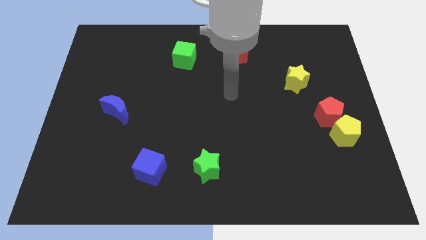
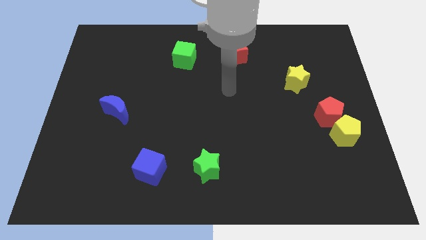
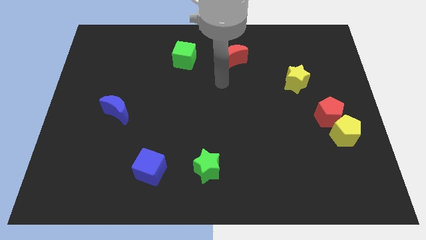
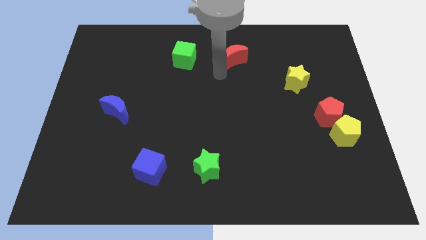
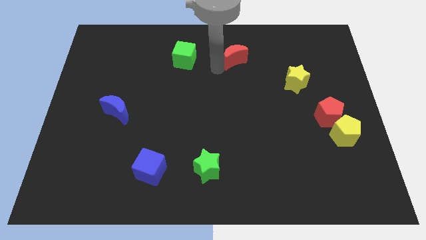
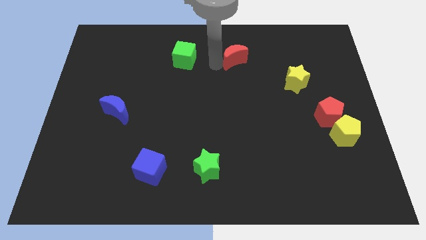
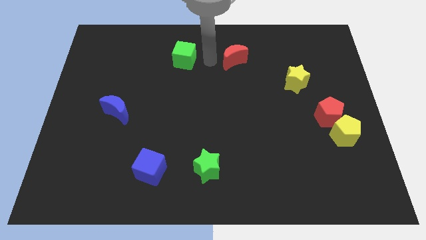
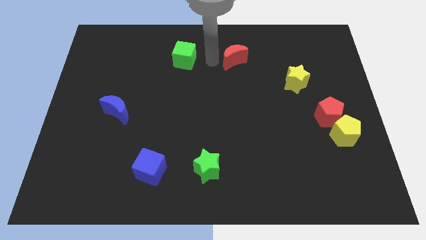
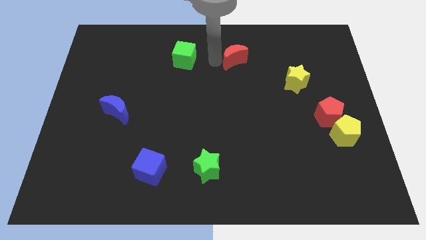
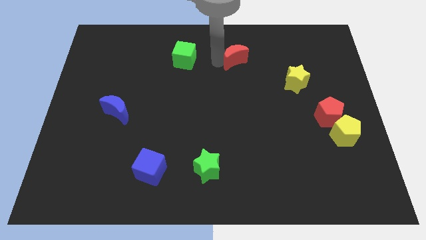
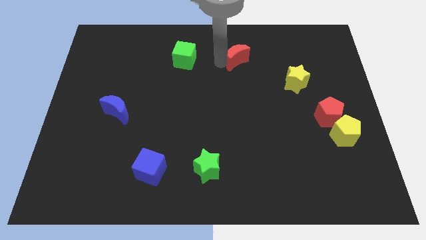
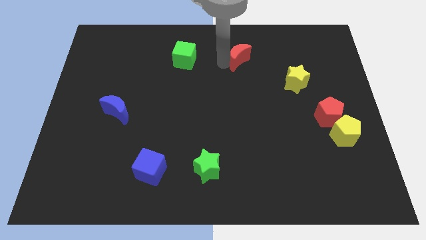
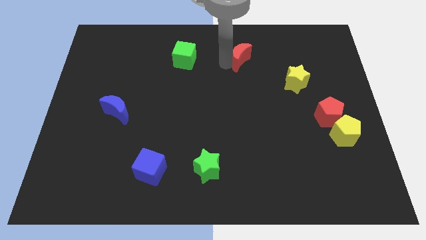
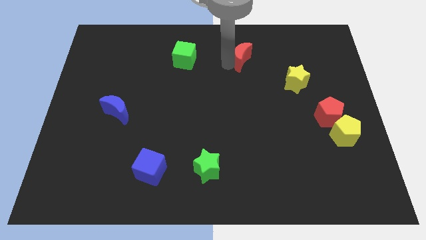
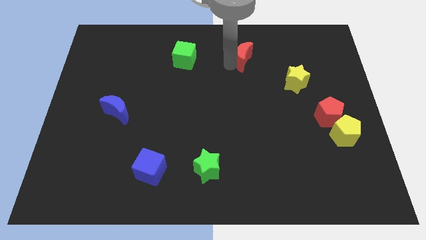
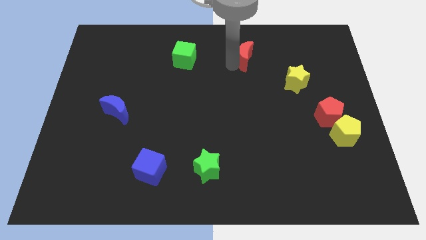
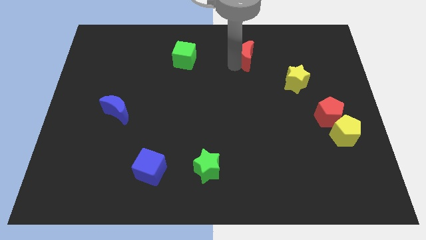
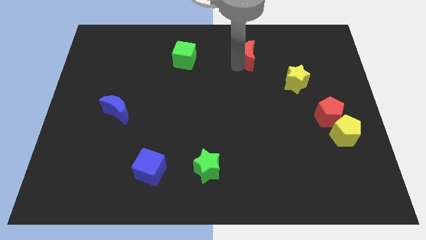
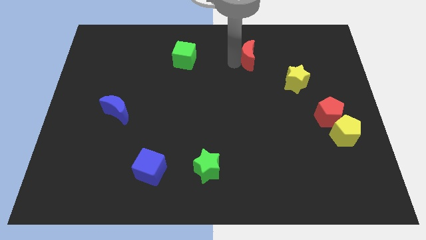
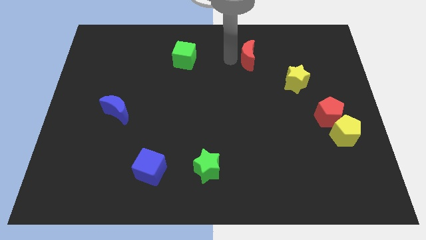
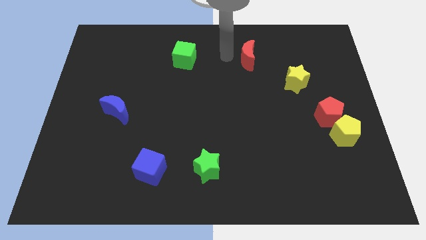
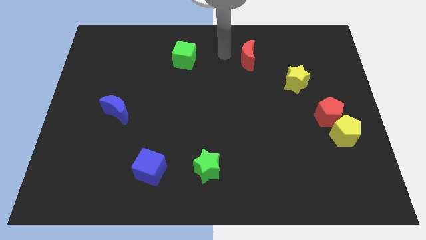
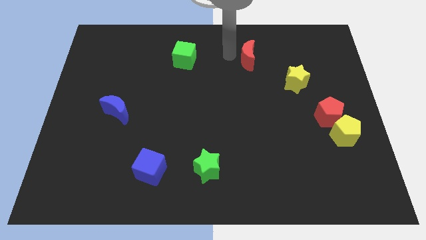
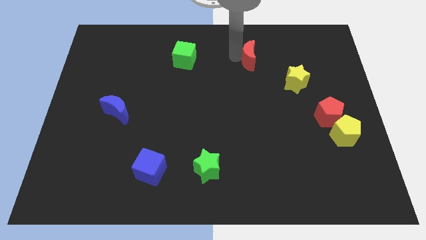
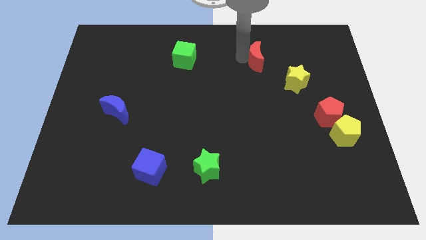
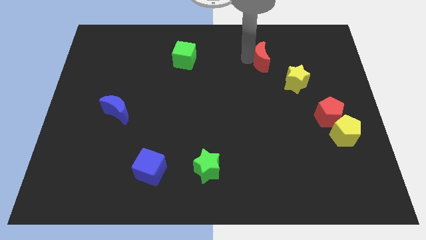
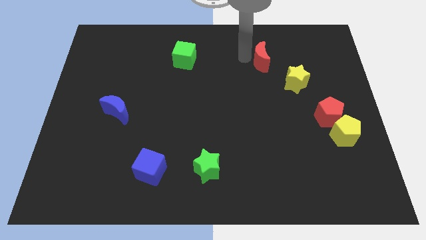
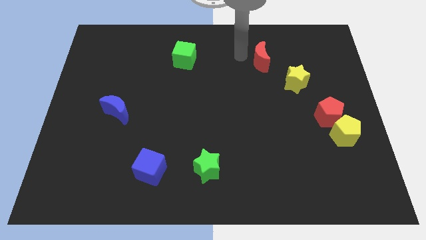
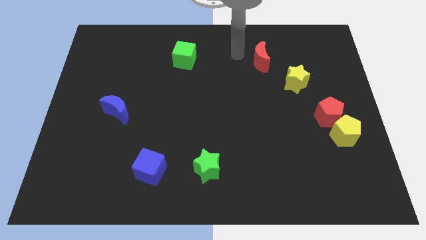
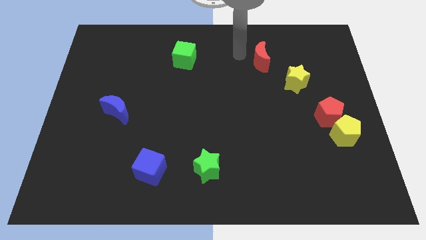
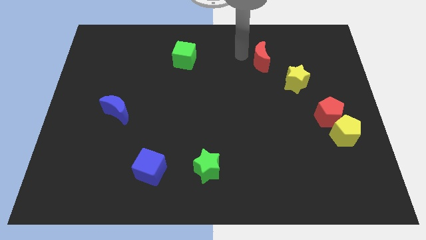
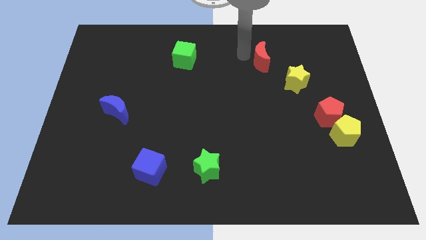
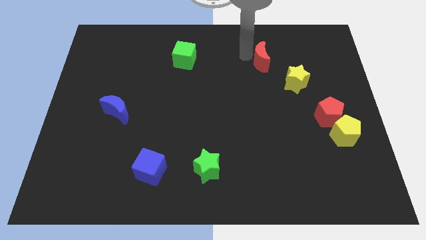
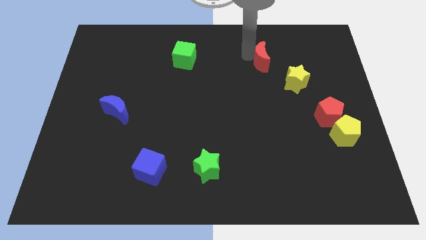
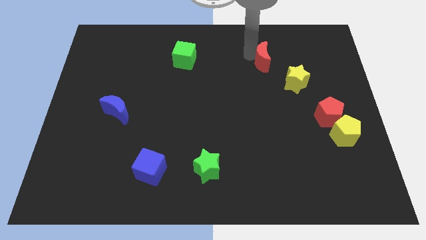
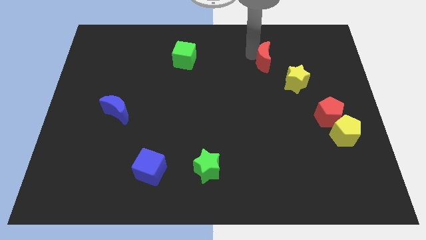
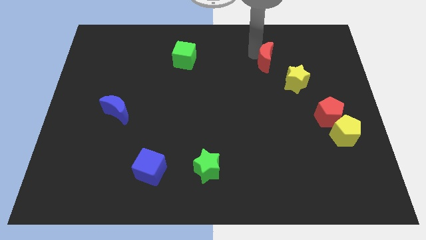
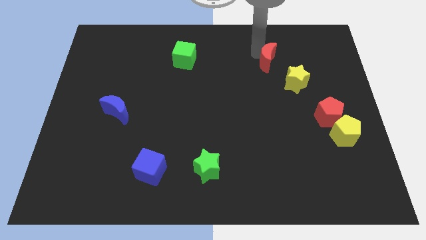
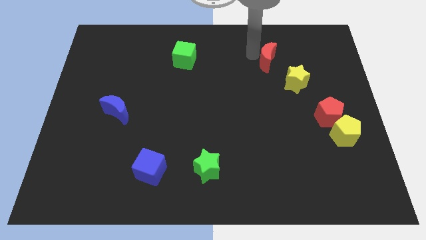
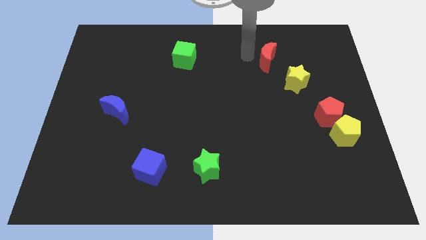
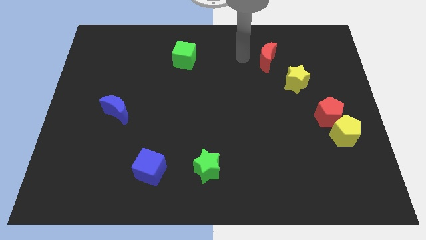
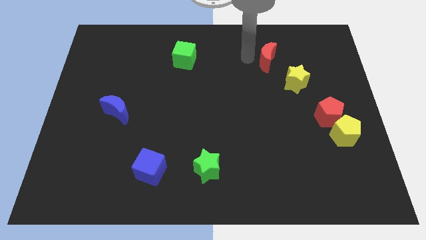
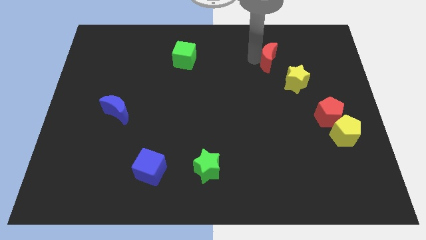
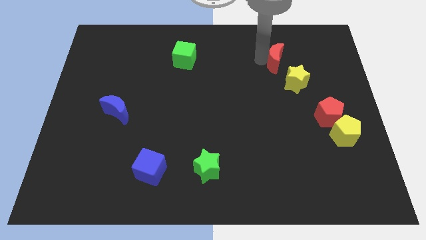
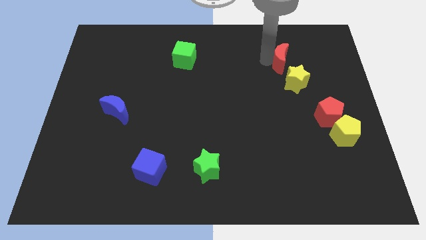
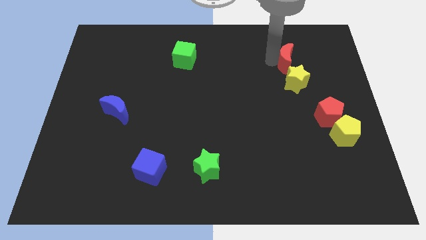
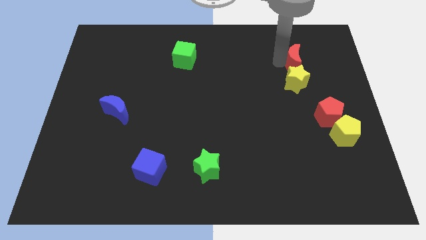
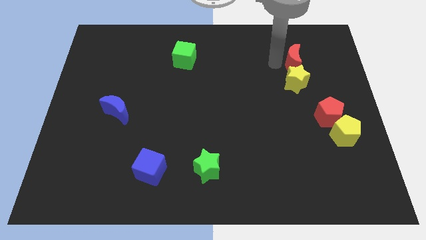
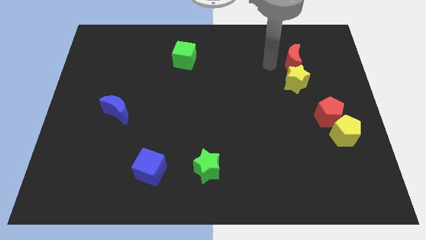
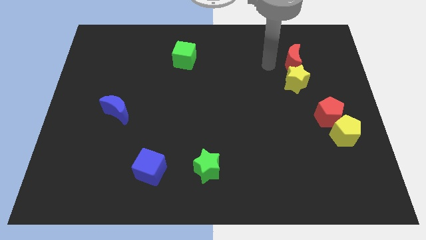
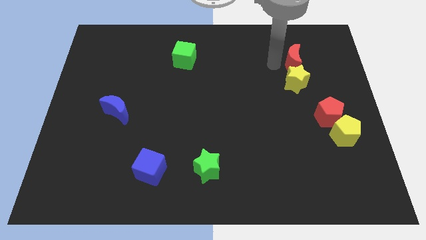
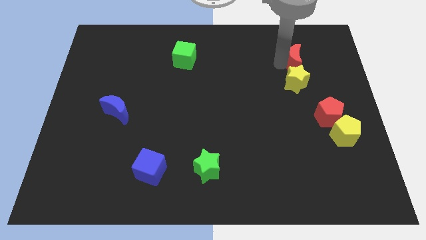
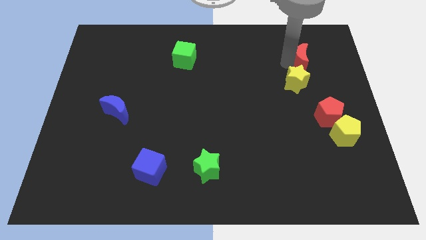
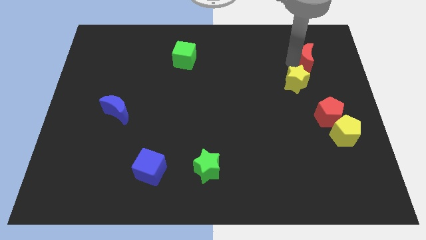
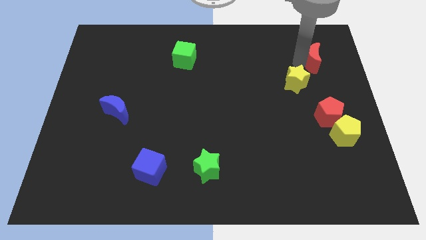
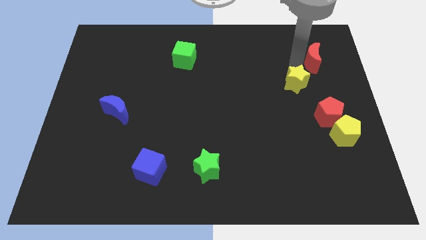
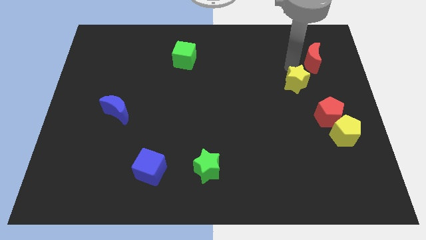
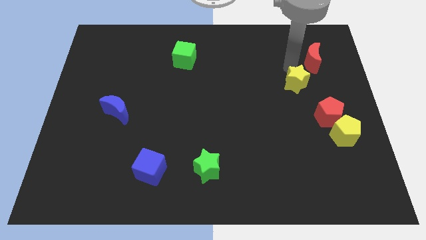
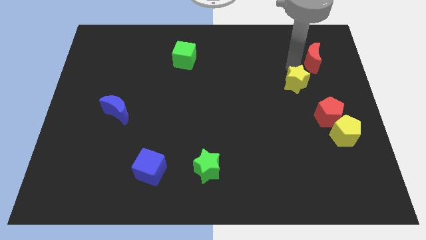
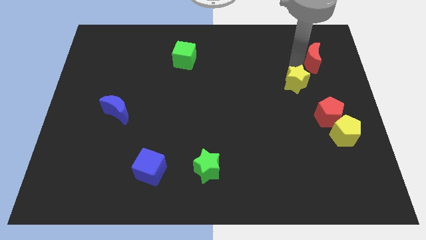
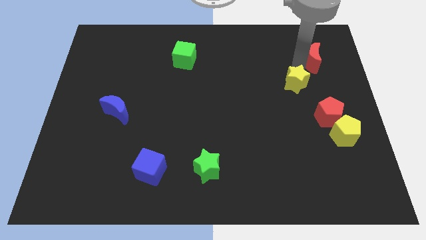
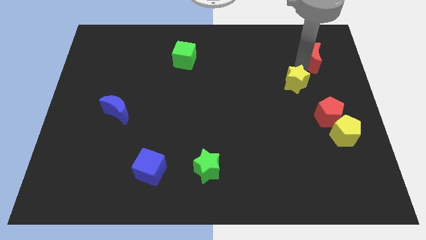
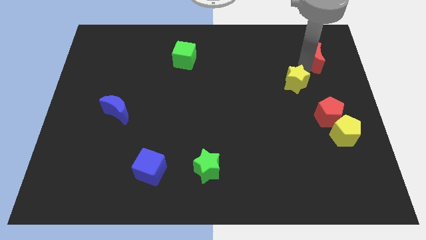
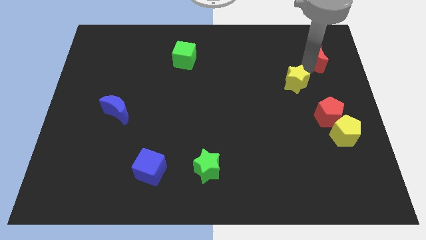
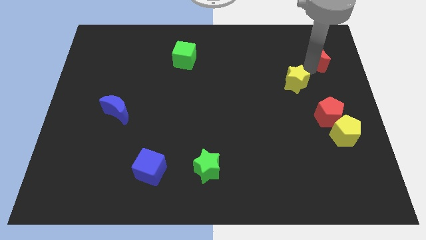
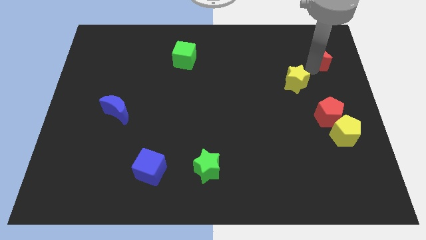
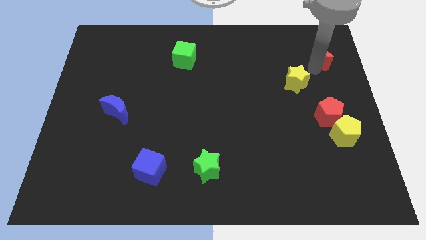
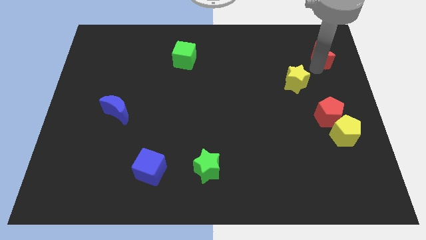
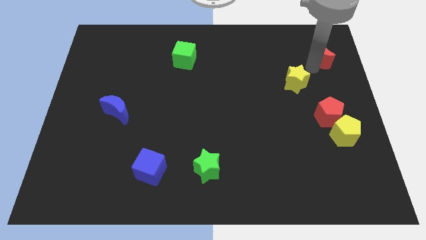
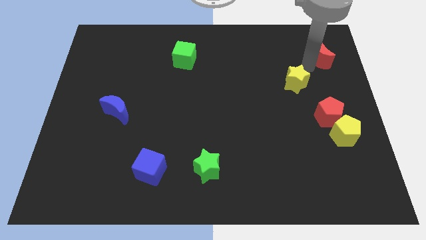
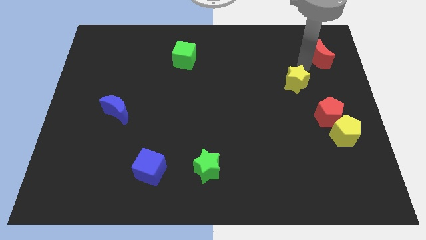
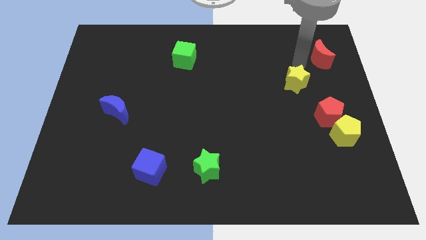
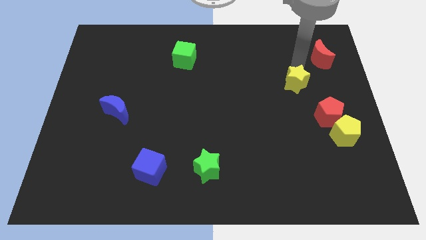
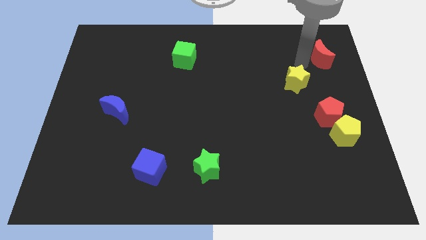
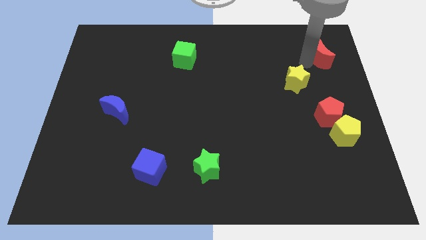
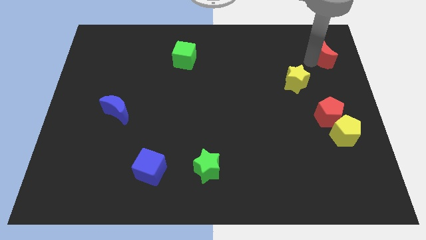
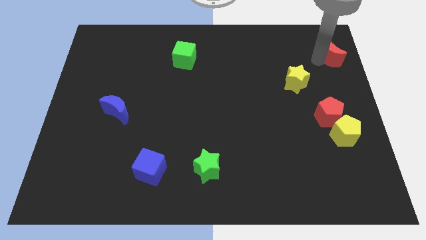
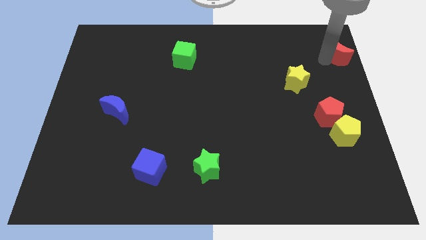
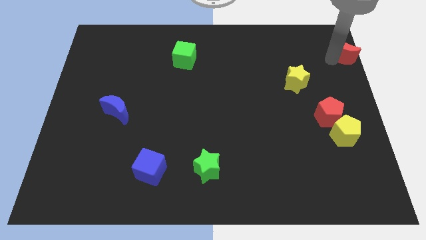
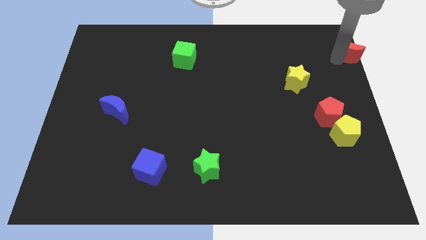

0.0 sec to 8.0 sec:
put the red moon to the top right corner
